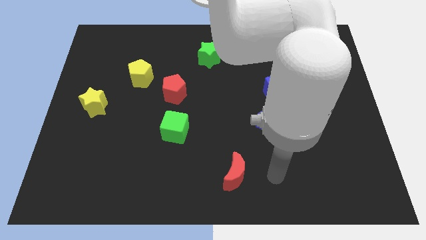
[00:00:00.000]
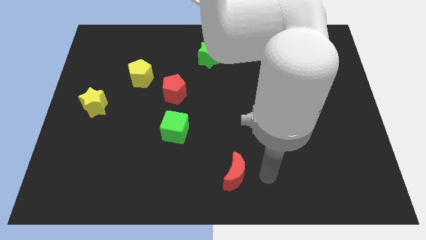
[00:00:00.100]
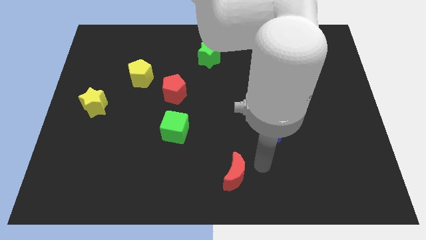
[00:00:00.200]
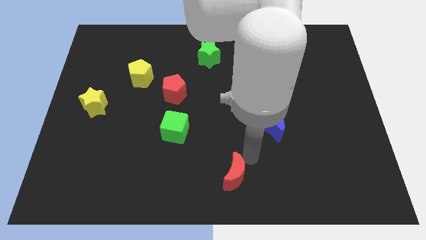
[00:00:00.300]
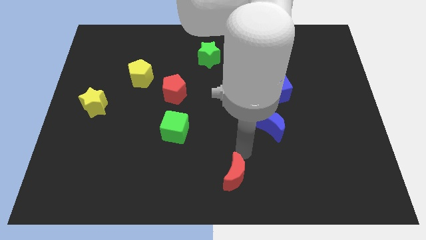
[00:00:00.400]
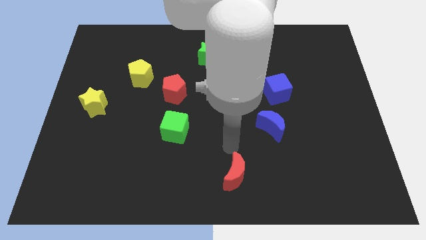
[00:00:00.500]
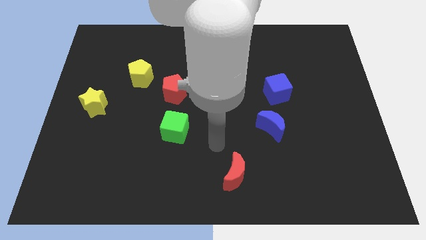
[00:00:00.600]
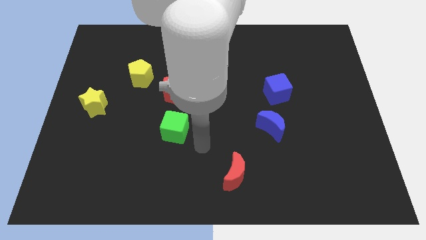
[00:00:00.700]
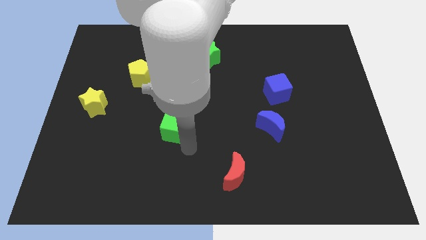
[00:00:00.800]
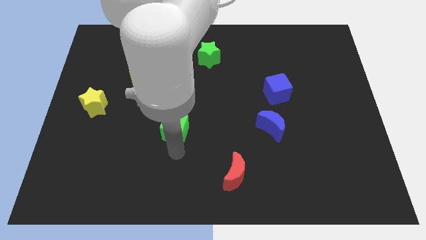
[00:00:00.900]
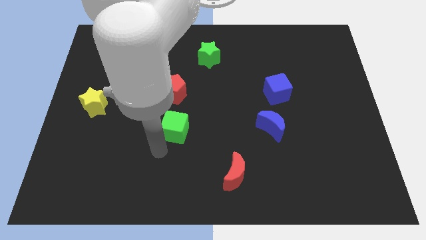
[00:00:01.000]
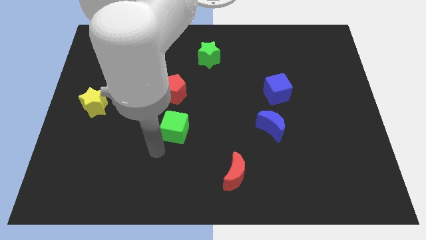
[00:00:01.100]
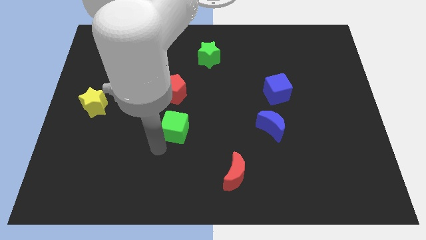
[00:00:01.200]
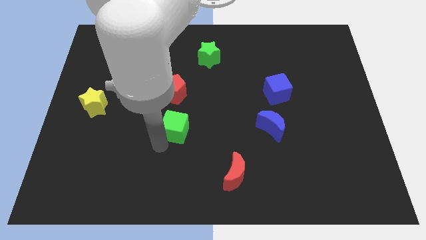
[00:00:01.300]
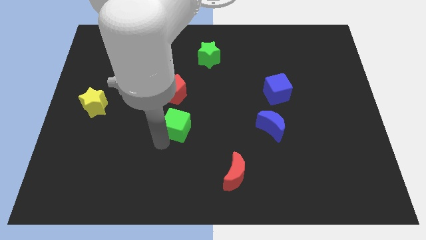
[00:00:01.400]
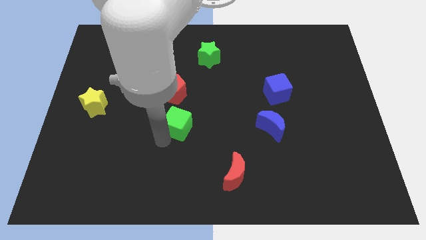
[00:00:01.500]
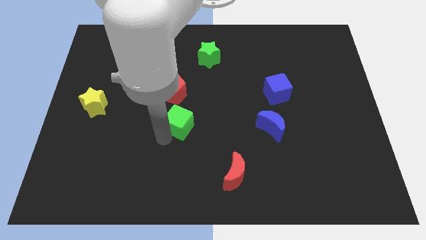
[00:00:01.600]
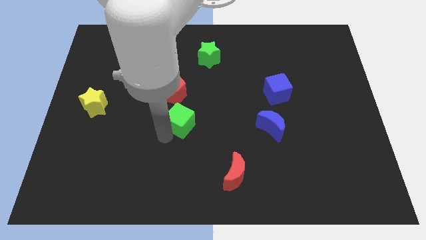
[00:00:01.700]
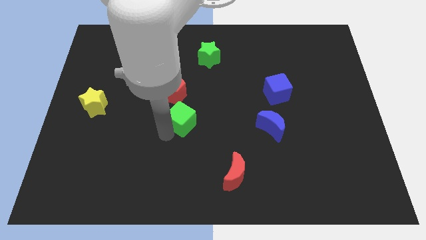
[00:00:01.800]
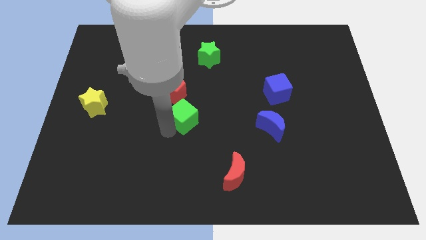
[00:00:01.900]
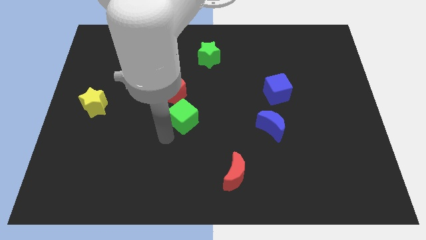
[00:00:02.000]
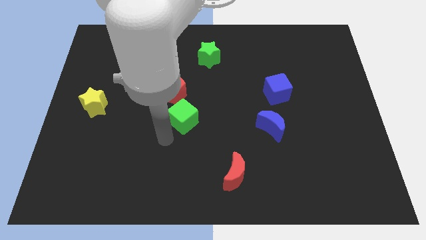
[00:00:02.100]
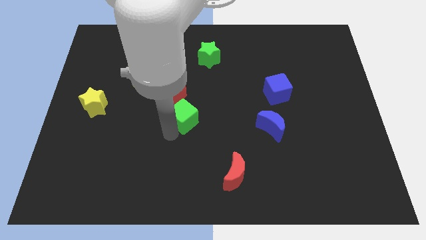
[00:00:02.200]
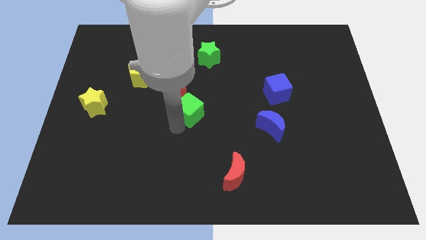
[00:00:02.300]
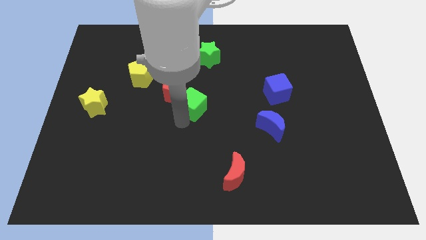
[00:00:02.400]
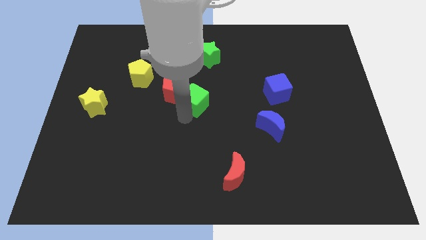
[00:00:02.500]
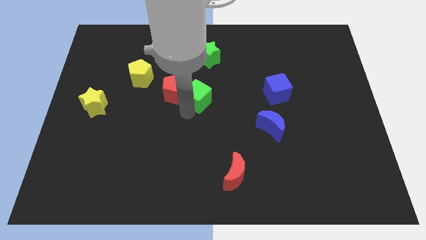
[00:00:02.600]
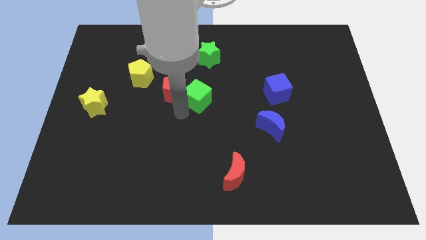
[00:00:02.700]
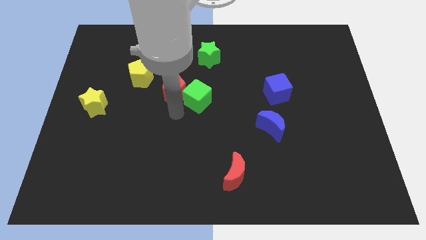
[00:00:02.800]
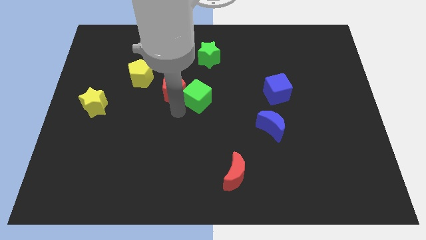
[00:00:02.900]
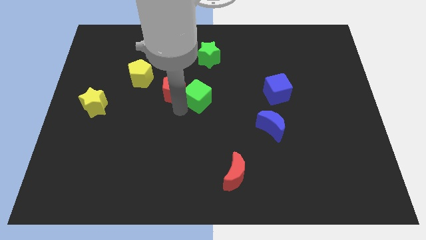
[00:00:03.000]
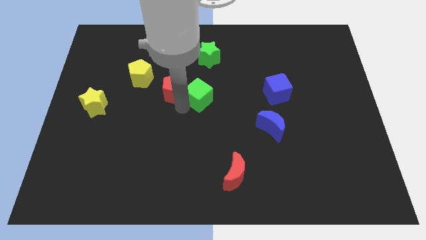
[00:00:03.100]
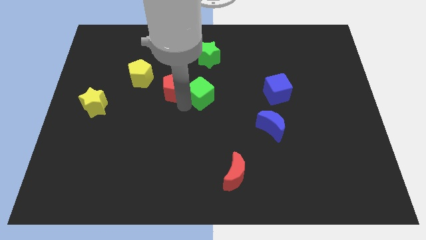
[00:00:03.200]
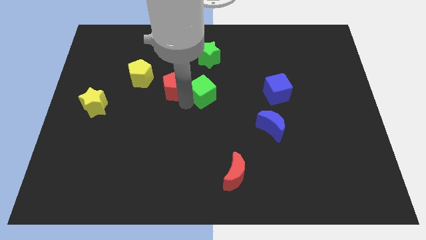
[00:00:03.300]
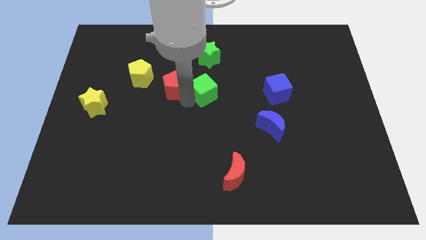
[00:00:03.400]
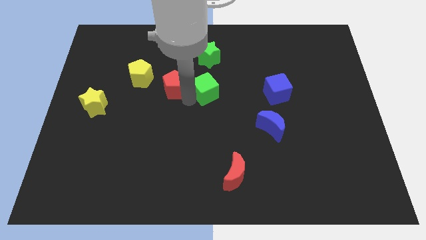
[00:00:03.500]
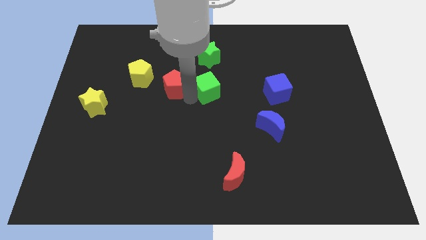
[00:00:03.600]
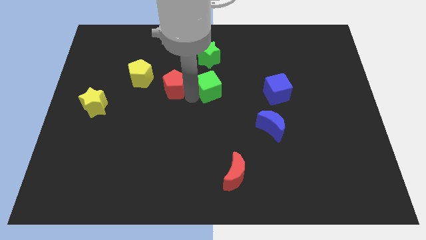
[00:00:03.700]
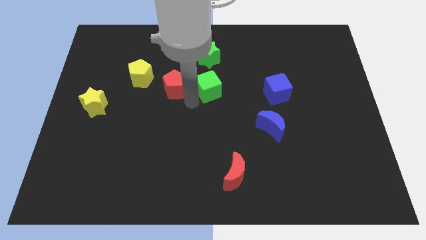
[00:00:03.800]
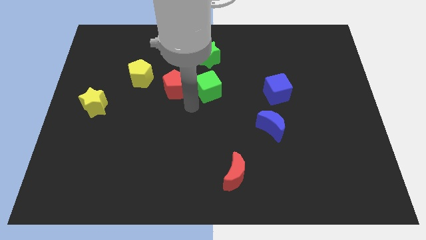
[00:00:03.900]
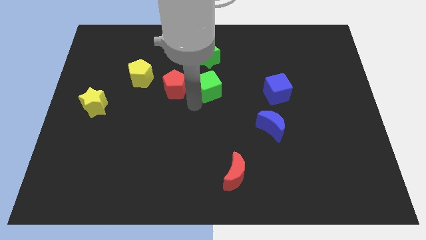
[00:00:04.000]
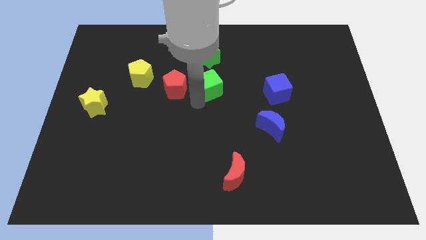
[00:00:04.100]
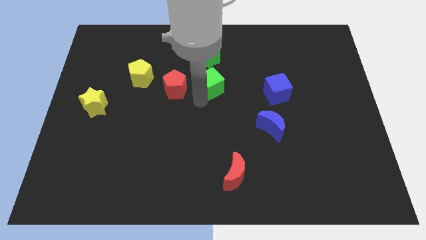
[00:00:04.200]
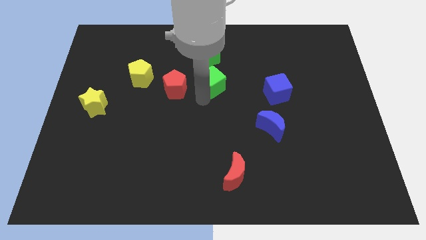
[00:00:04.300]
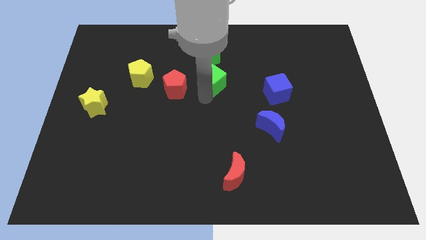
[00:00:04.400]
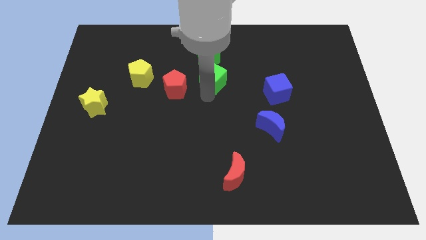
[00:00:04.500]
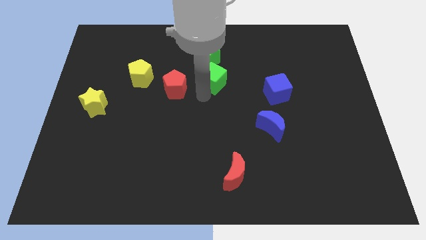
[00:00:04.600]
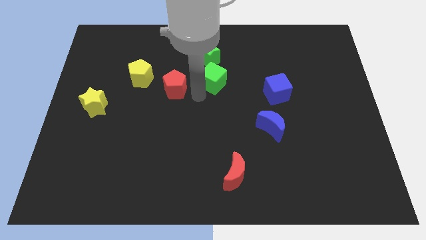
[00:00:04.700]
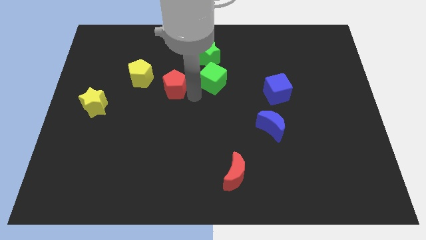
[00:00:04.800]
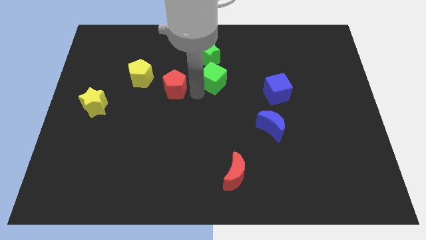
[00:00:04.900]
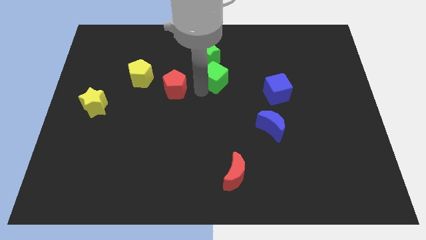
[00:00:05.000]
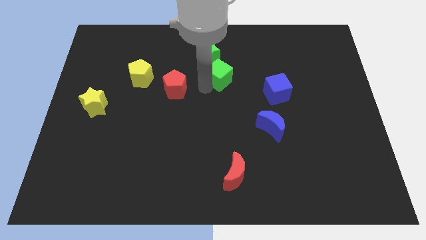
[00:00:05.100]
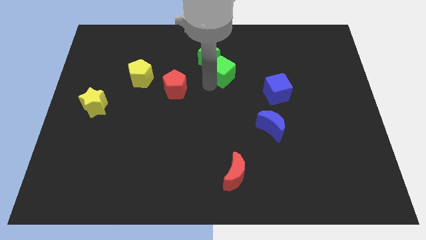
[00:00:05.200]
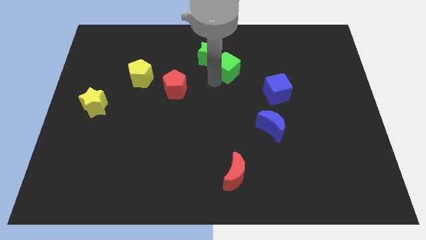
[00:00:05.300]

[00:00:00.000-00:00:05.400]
push the green cube up and then right

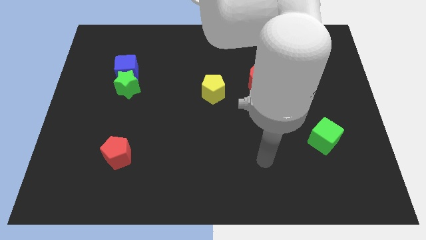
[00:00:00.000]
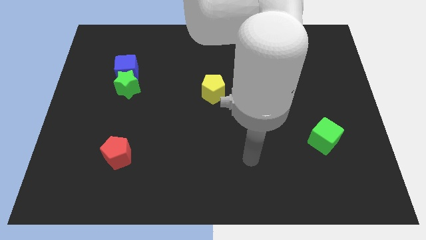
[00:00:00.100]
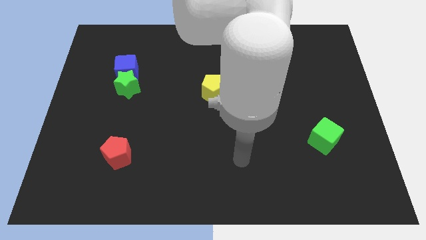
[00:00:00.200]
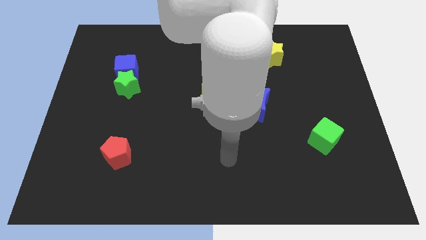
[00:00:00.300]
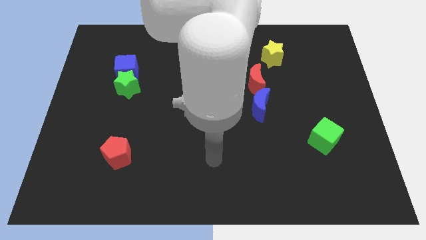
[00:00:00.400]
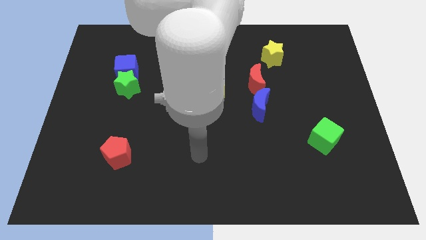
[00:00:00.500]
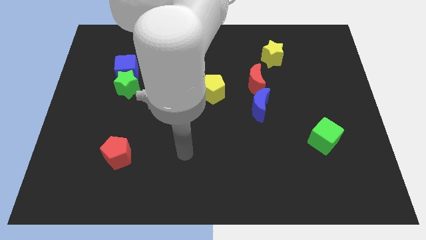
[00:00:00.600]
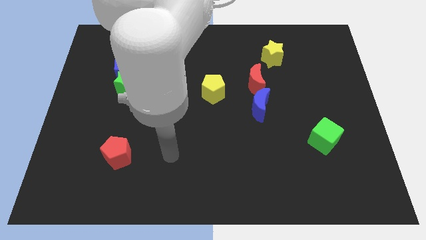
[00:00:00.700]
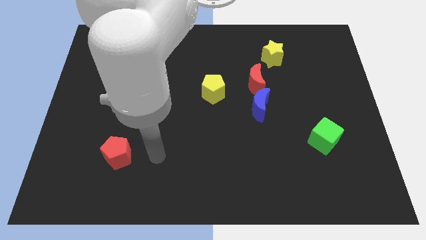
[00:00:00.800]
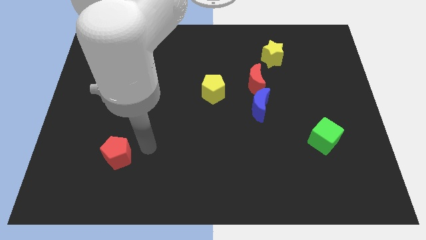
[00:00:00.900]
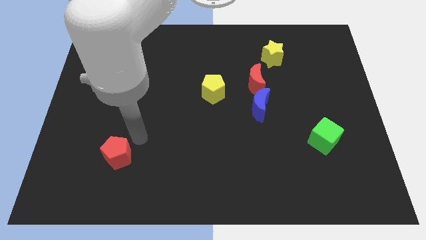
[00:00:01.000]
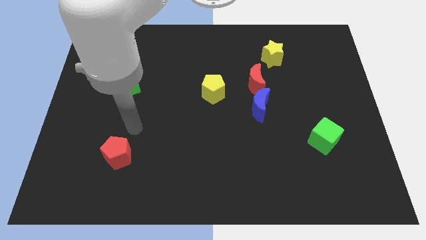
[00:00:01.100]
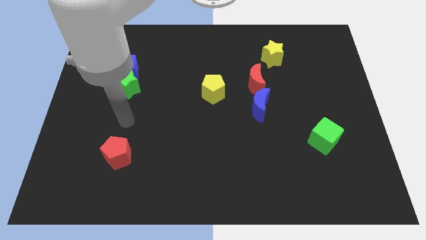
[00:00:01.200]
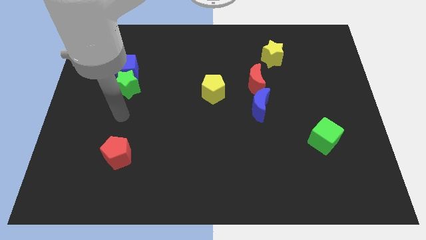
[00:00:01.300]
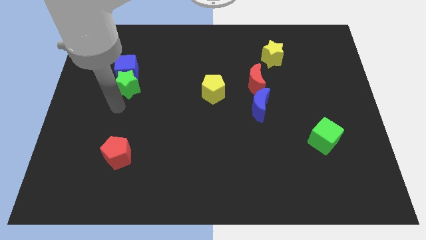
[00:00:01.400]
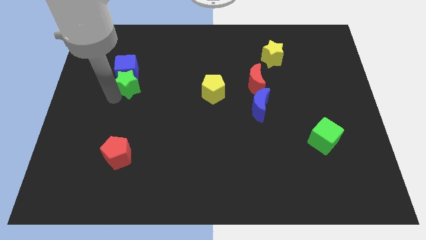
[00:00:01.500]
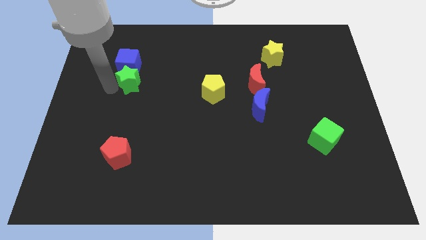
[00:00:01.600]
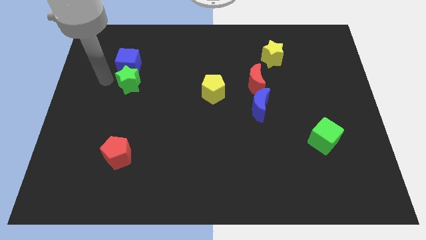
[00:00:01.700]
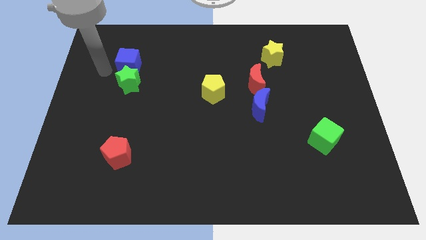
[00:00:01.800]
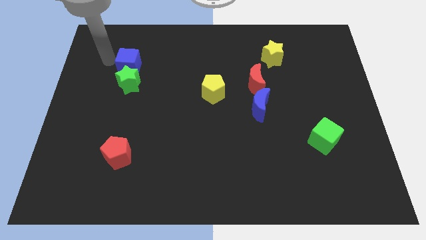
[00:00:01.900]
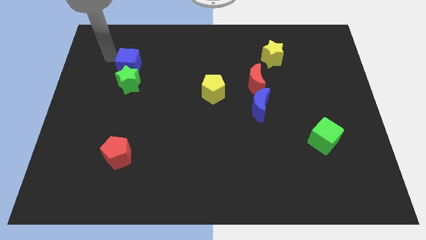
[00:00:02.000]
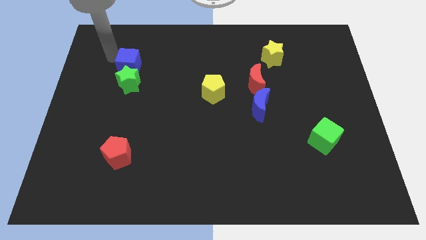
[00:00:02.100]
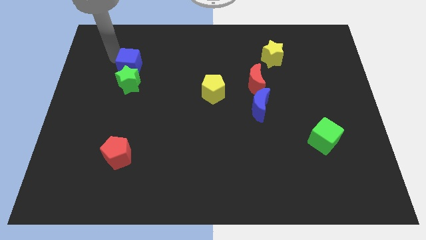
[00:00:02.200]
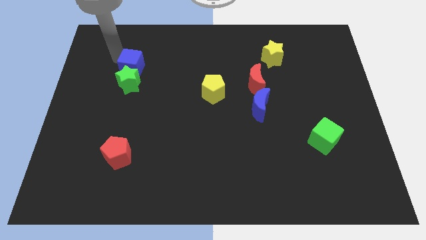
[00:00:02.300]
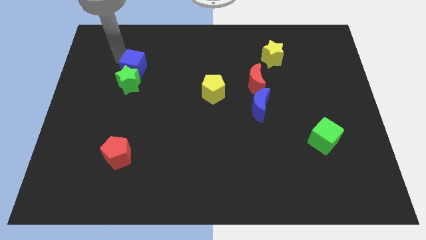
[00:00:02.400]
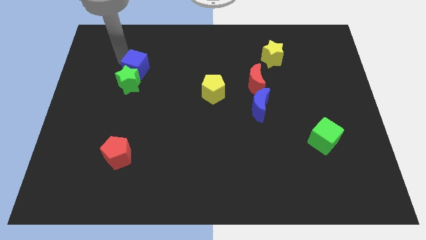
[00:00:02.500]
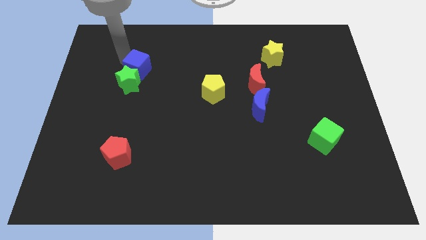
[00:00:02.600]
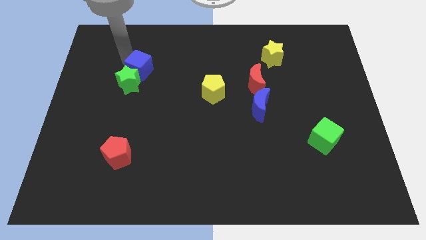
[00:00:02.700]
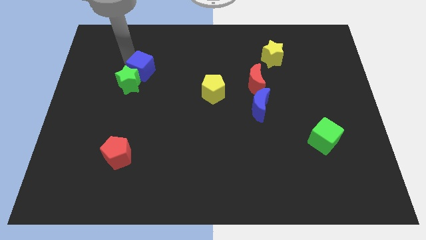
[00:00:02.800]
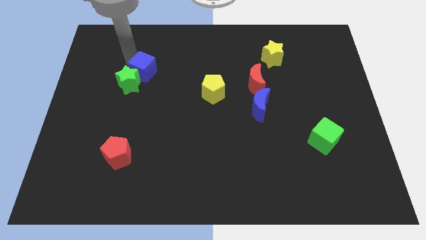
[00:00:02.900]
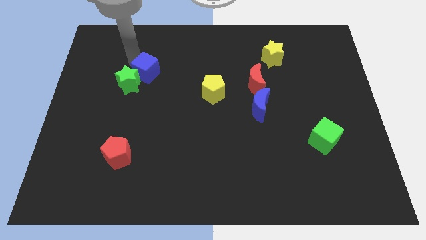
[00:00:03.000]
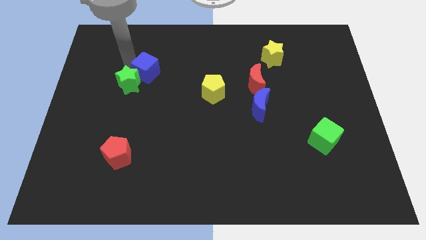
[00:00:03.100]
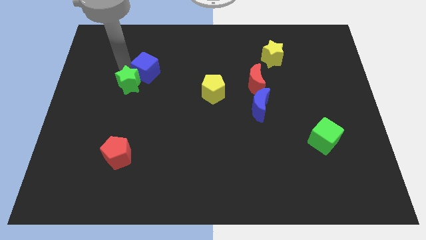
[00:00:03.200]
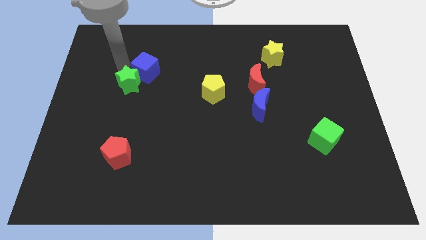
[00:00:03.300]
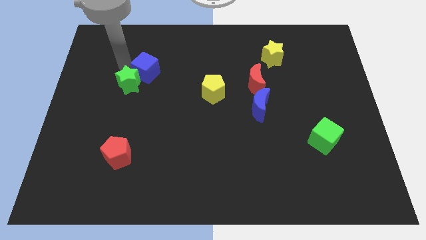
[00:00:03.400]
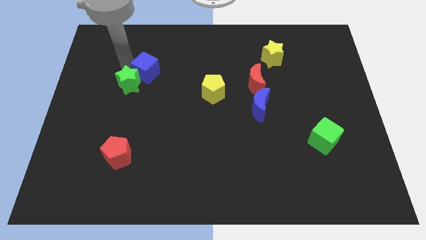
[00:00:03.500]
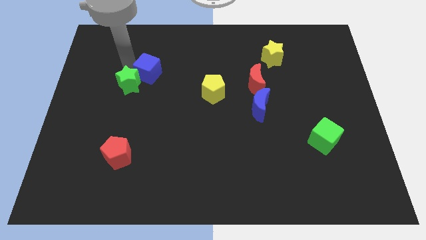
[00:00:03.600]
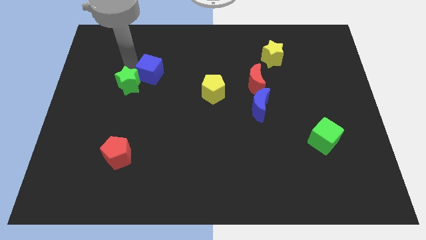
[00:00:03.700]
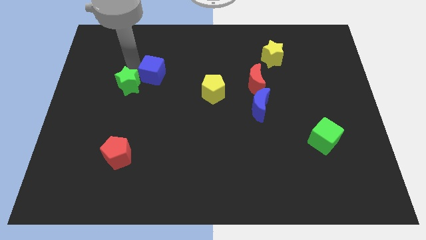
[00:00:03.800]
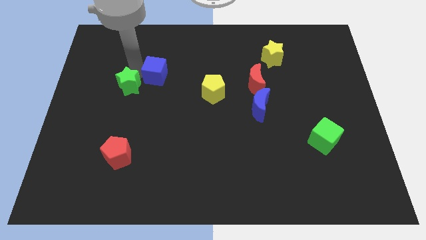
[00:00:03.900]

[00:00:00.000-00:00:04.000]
move the blue cube to the right a little bit
